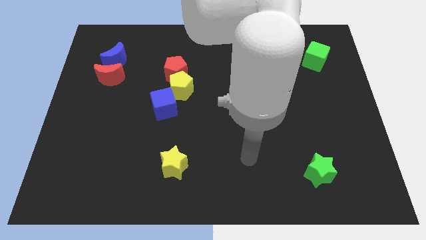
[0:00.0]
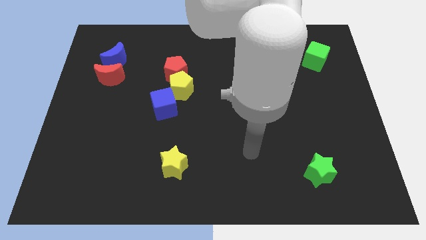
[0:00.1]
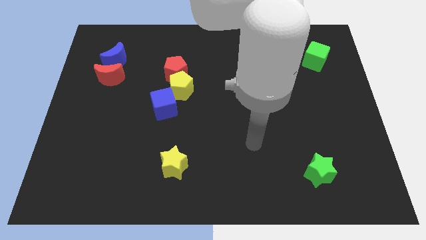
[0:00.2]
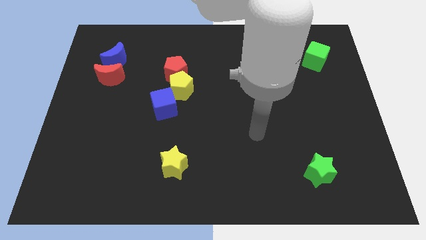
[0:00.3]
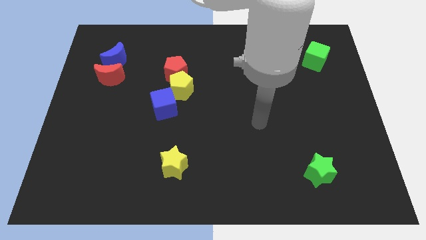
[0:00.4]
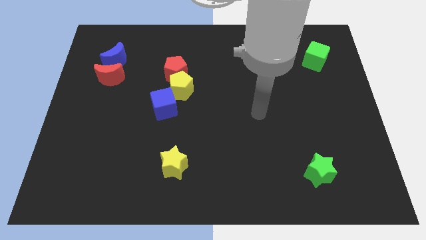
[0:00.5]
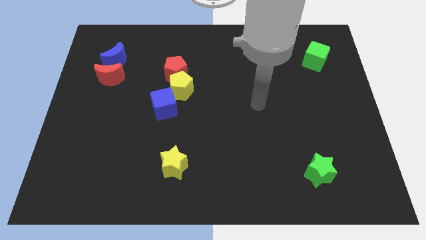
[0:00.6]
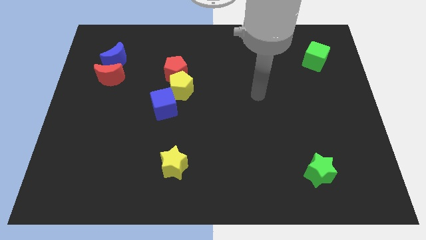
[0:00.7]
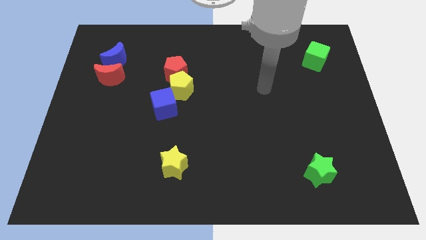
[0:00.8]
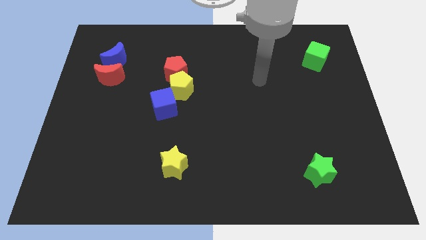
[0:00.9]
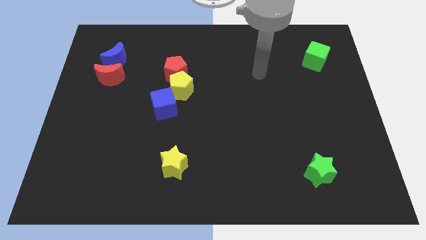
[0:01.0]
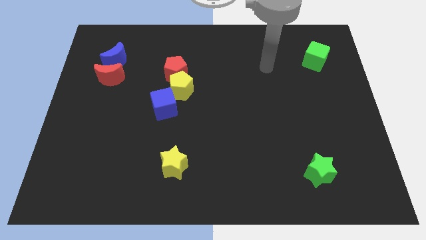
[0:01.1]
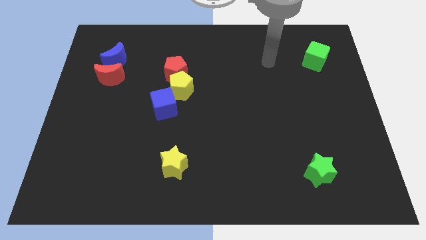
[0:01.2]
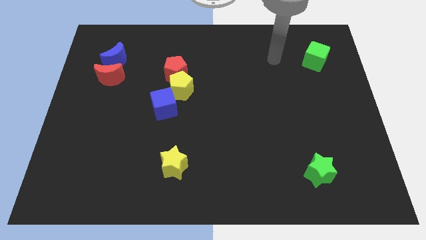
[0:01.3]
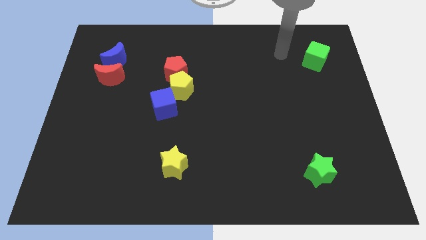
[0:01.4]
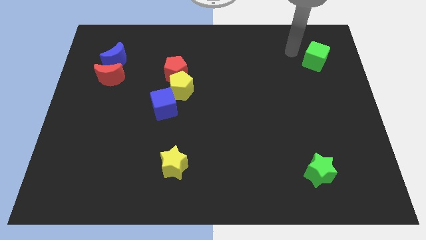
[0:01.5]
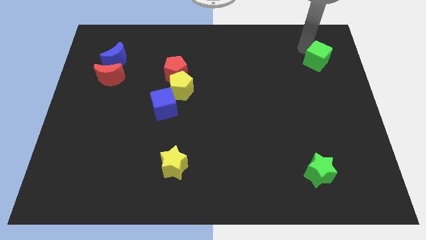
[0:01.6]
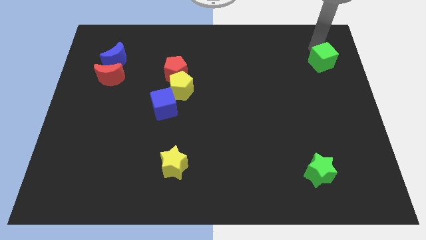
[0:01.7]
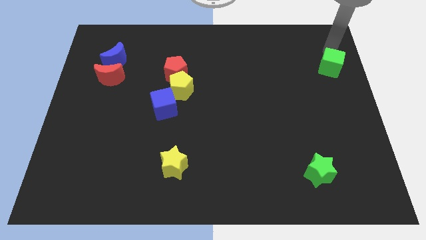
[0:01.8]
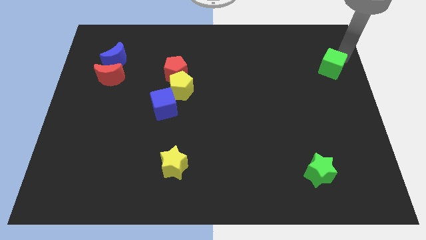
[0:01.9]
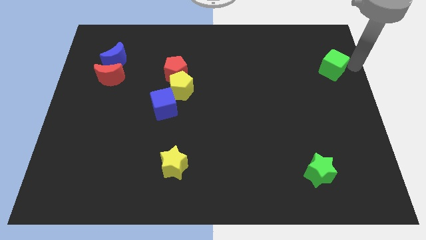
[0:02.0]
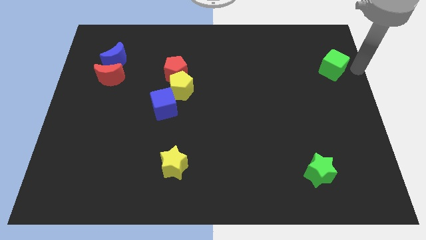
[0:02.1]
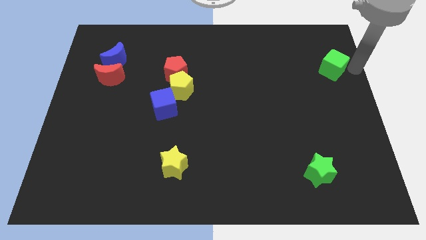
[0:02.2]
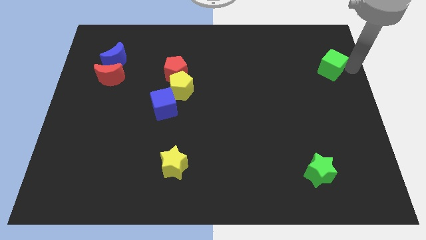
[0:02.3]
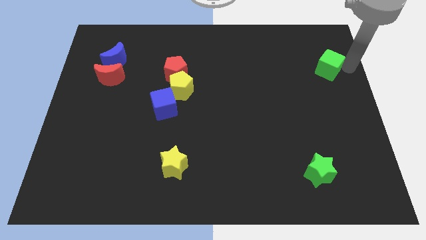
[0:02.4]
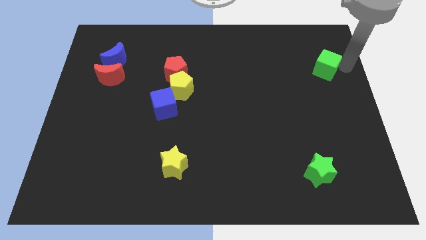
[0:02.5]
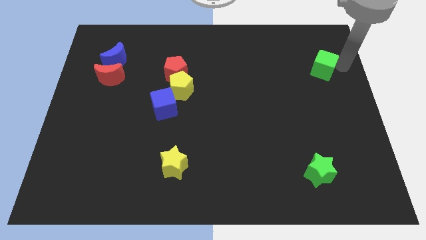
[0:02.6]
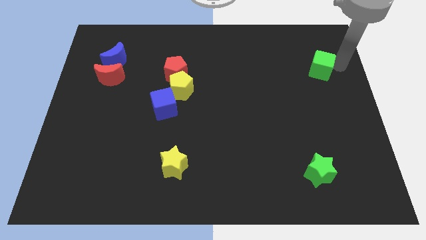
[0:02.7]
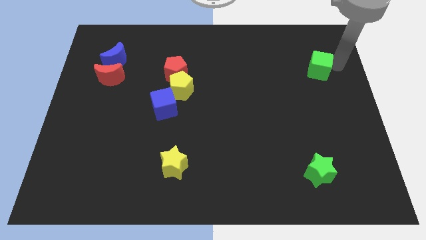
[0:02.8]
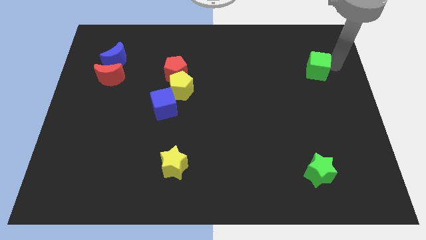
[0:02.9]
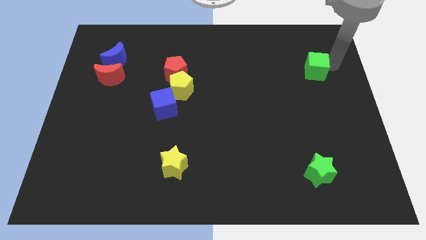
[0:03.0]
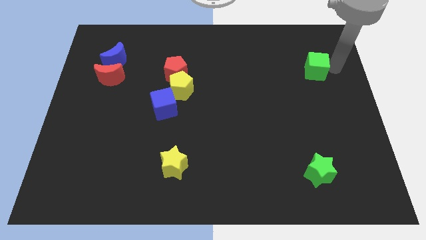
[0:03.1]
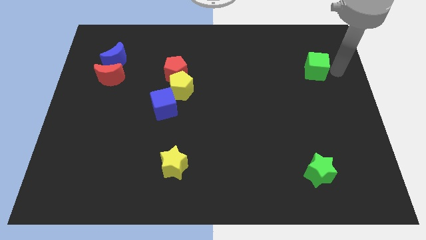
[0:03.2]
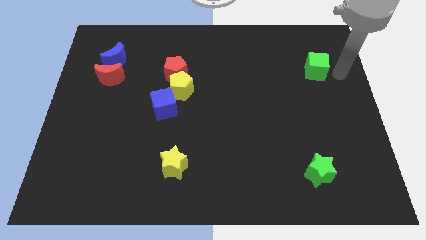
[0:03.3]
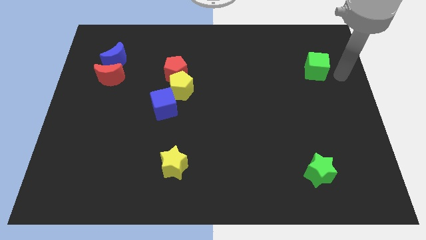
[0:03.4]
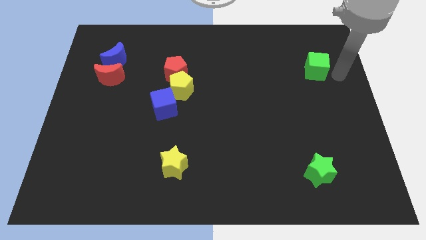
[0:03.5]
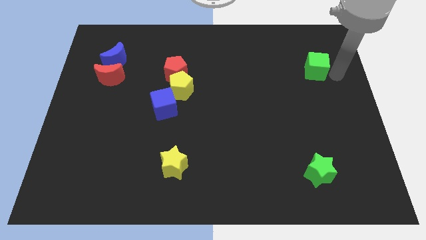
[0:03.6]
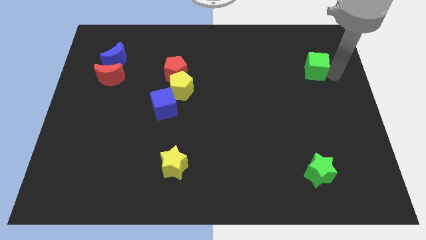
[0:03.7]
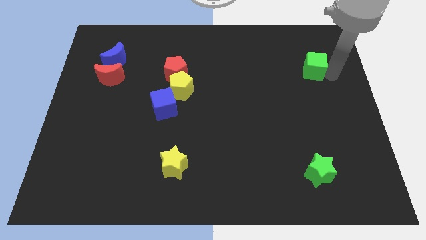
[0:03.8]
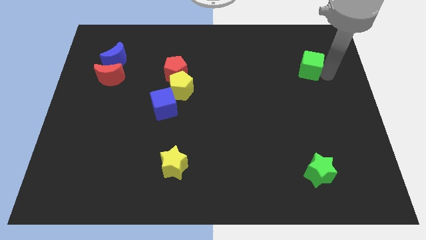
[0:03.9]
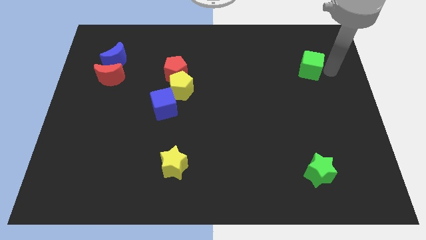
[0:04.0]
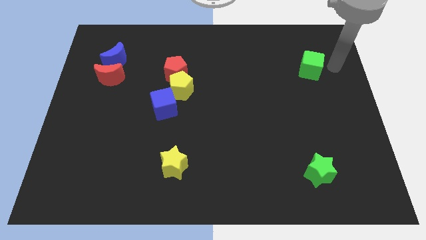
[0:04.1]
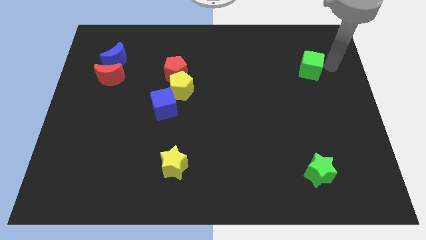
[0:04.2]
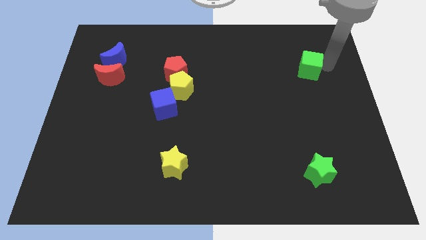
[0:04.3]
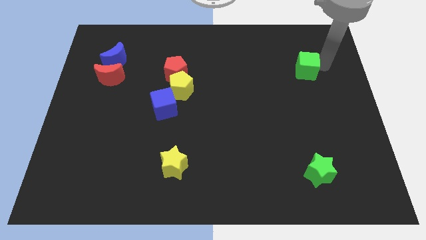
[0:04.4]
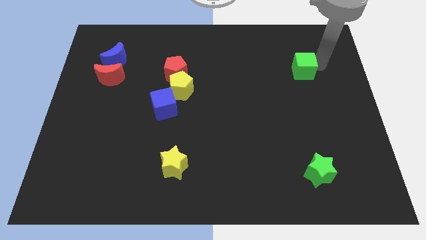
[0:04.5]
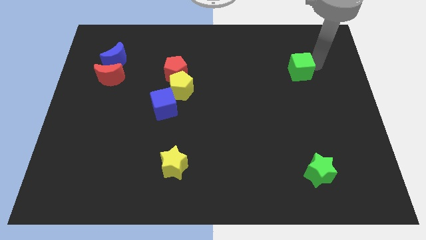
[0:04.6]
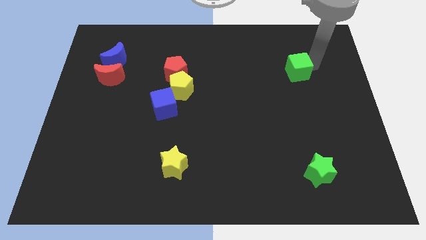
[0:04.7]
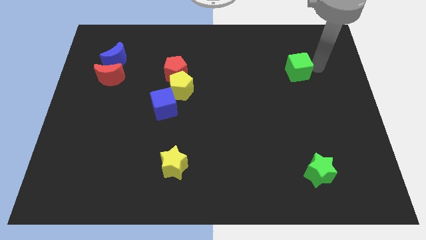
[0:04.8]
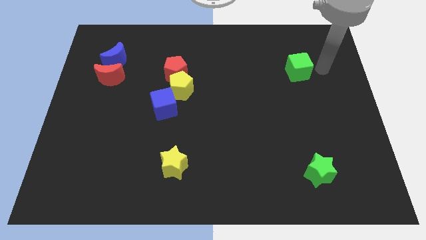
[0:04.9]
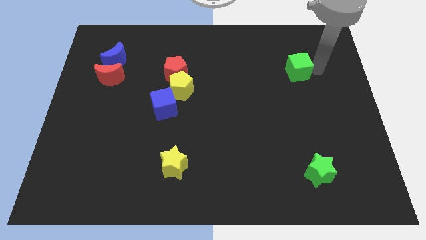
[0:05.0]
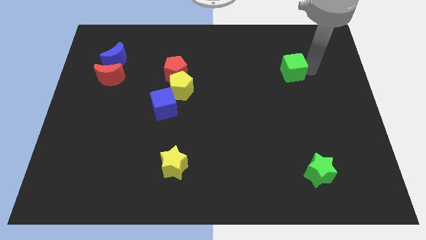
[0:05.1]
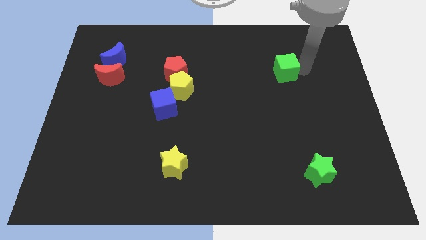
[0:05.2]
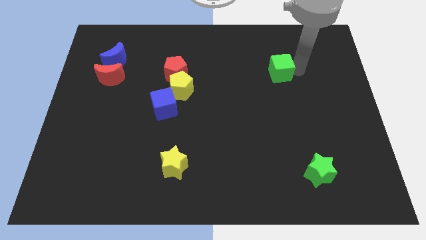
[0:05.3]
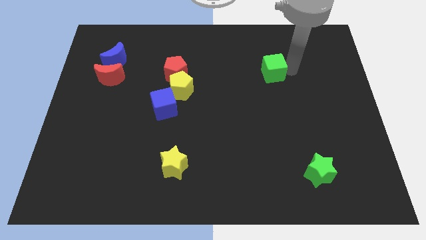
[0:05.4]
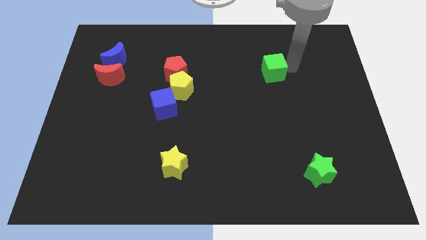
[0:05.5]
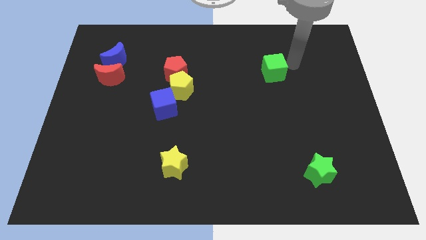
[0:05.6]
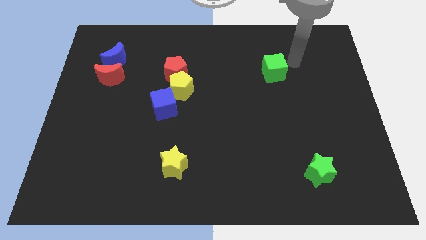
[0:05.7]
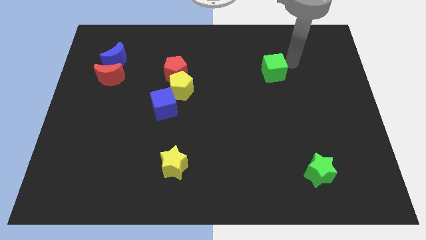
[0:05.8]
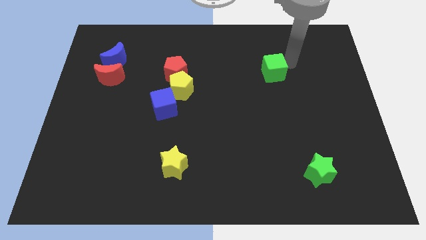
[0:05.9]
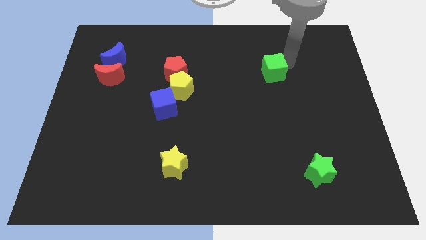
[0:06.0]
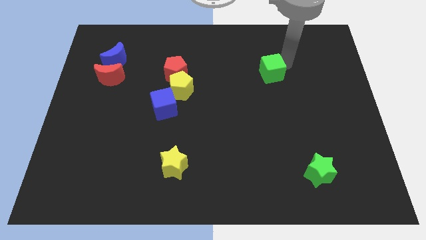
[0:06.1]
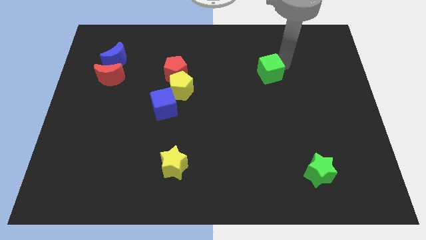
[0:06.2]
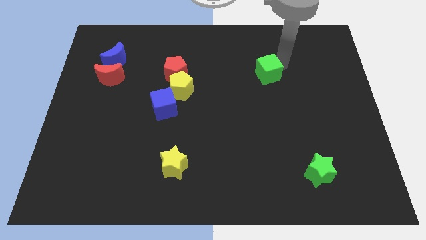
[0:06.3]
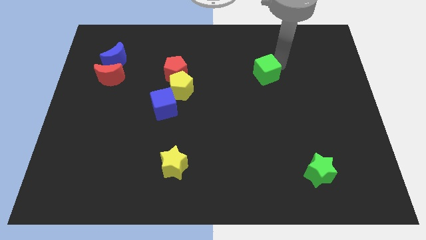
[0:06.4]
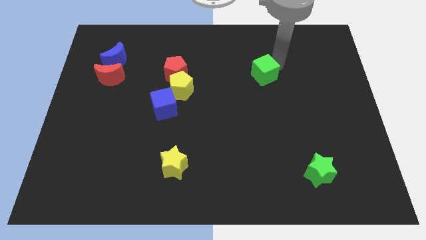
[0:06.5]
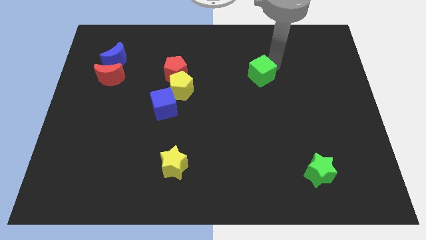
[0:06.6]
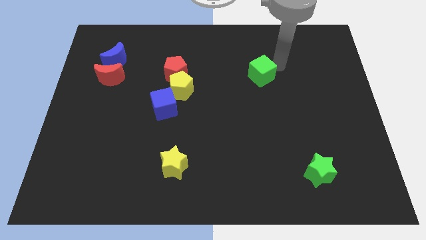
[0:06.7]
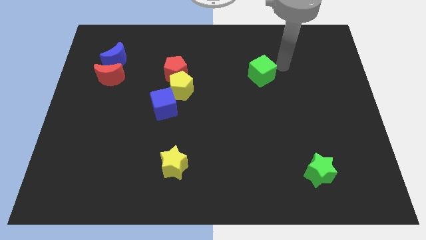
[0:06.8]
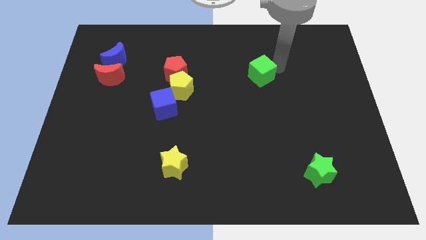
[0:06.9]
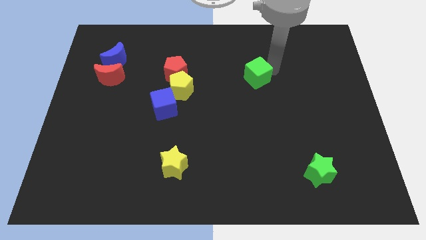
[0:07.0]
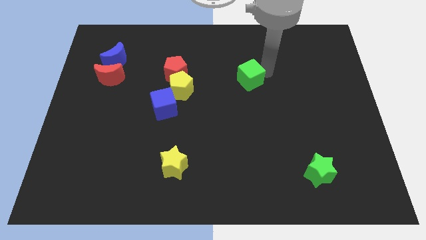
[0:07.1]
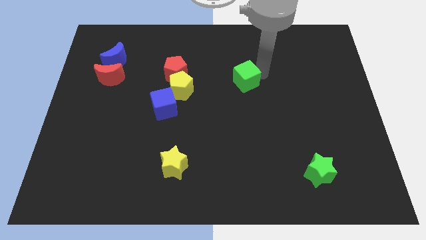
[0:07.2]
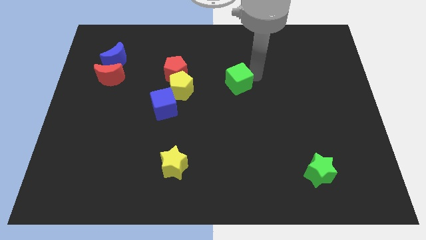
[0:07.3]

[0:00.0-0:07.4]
push the green cube to the right of the yellow pentagon

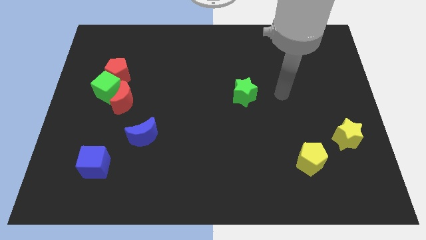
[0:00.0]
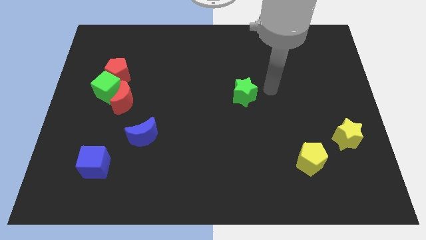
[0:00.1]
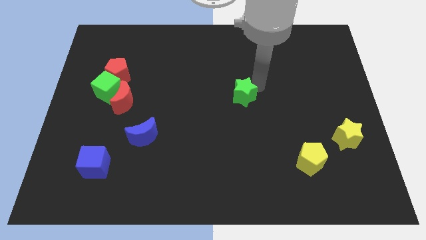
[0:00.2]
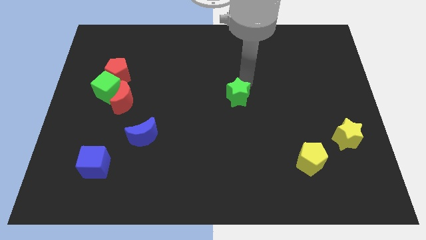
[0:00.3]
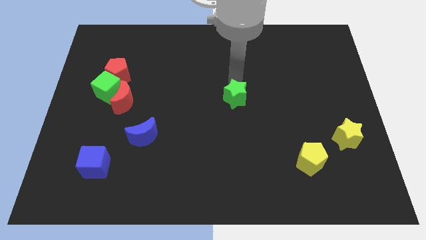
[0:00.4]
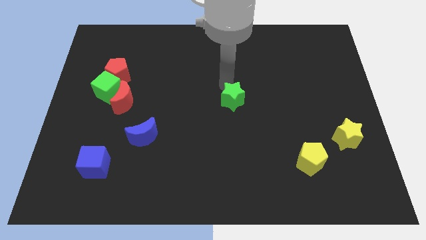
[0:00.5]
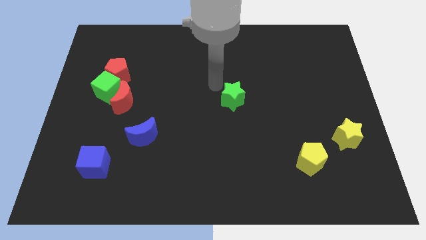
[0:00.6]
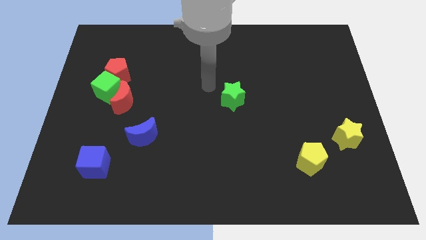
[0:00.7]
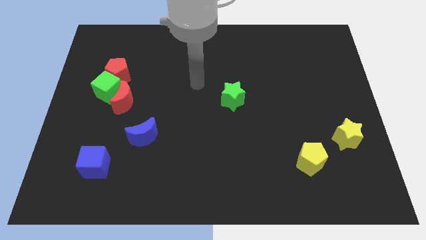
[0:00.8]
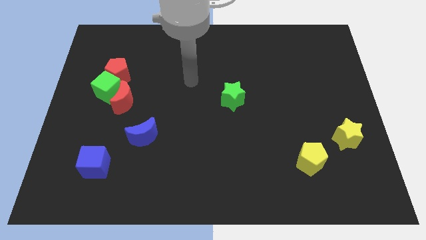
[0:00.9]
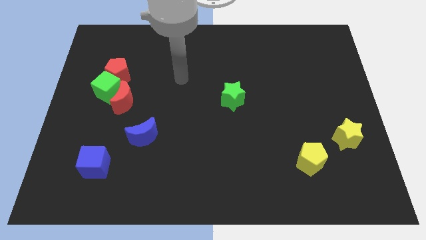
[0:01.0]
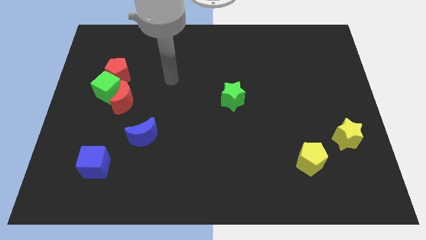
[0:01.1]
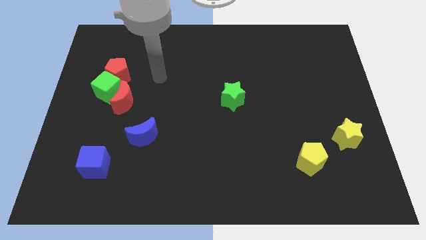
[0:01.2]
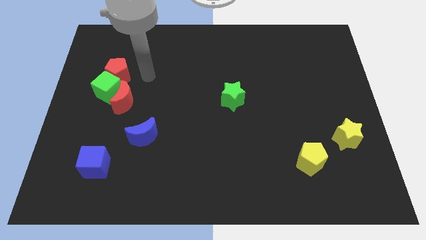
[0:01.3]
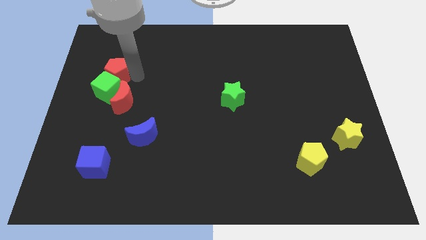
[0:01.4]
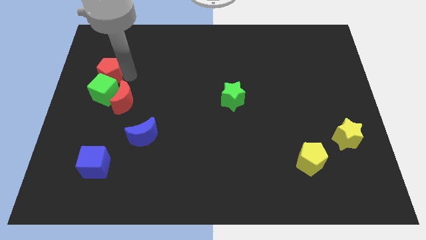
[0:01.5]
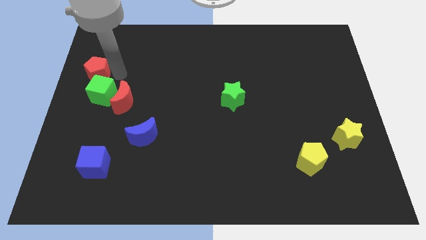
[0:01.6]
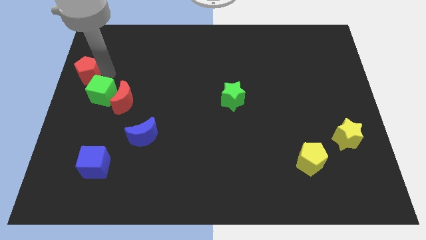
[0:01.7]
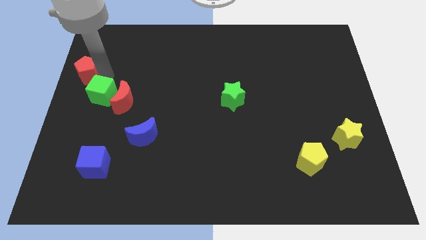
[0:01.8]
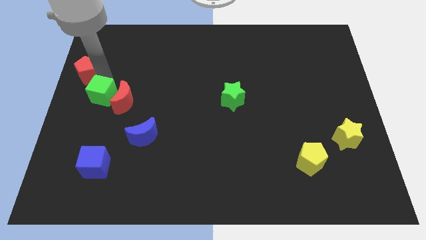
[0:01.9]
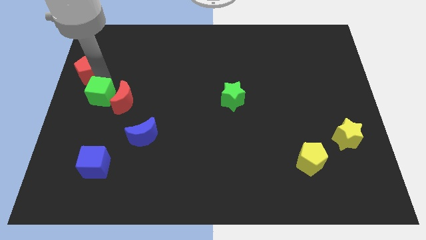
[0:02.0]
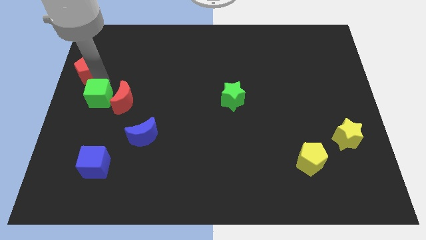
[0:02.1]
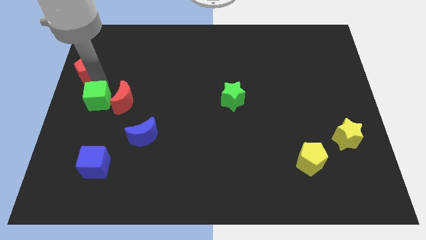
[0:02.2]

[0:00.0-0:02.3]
put the green cube diagonally down and to the left of the red moon
